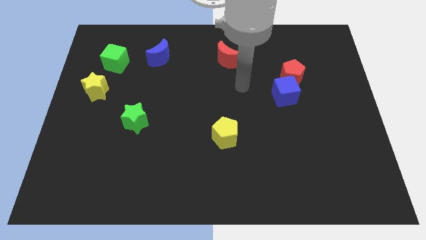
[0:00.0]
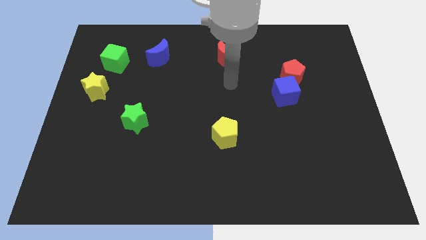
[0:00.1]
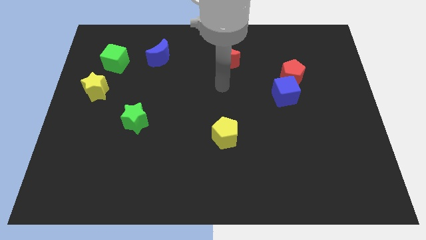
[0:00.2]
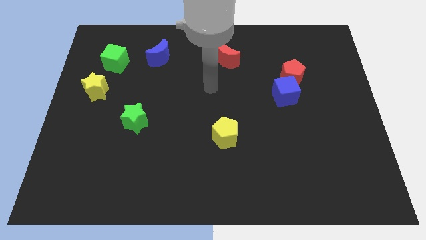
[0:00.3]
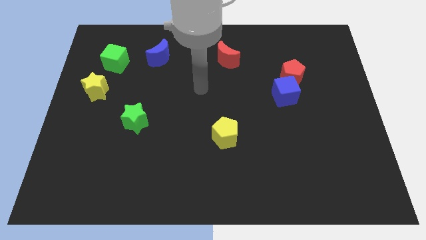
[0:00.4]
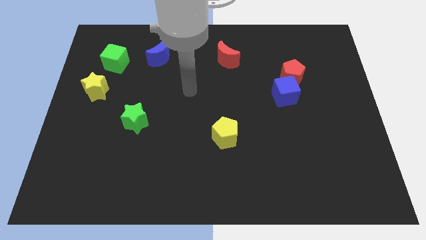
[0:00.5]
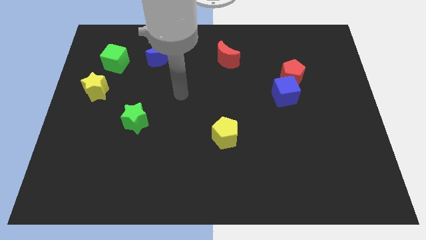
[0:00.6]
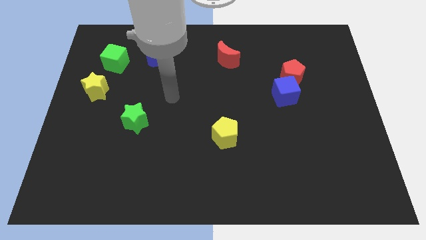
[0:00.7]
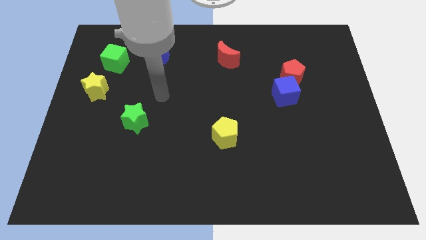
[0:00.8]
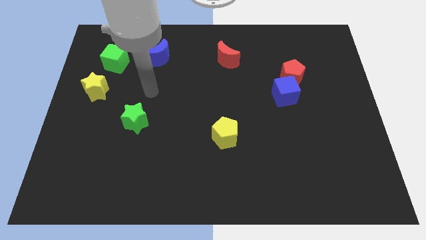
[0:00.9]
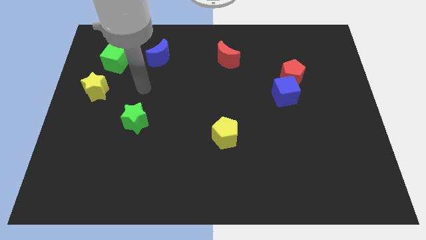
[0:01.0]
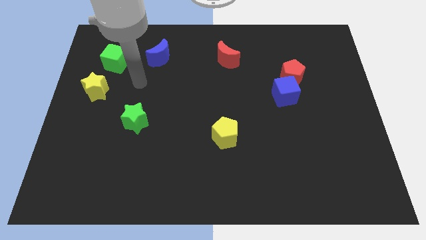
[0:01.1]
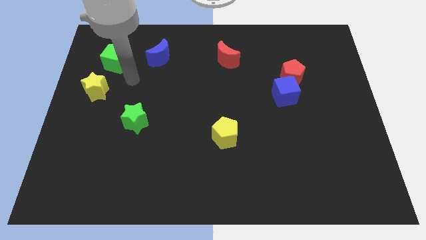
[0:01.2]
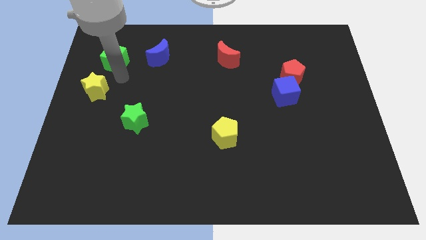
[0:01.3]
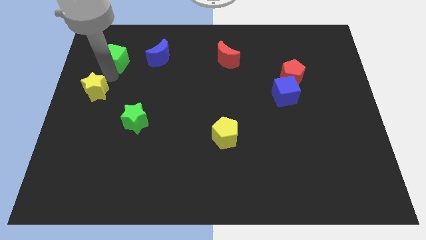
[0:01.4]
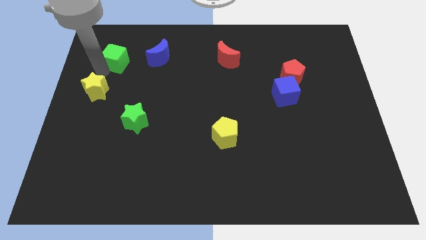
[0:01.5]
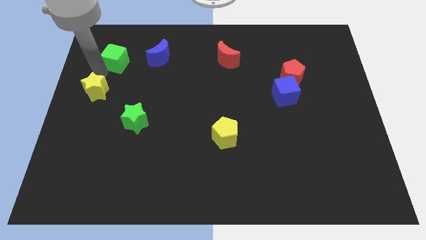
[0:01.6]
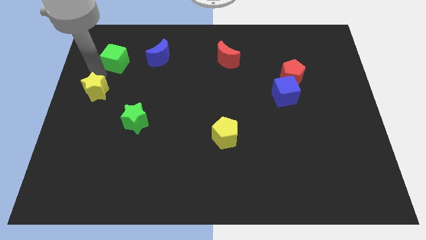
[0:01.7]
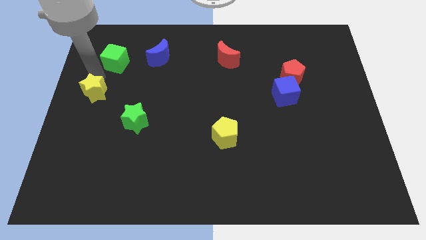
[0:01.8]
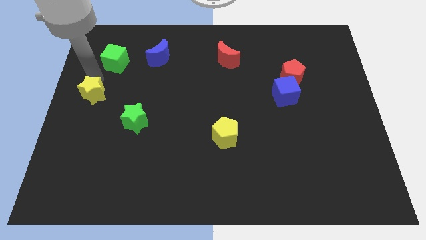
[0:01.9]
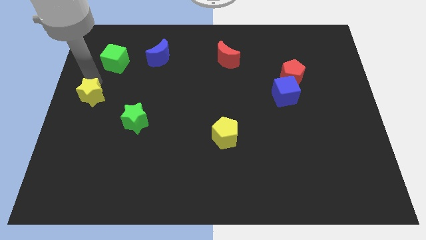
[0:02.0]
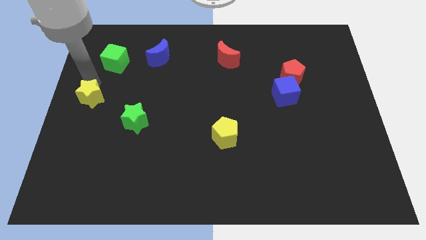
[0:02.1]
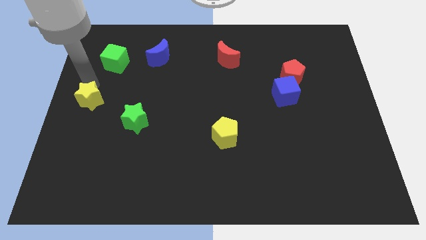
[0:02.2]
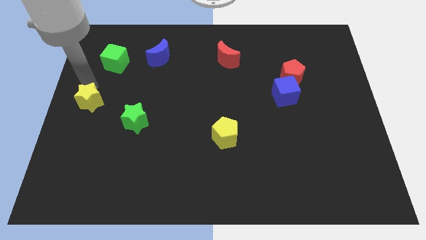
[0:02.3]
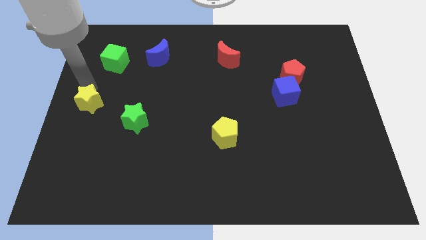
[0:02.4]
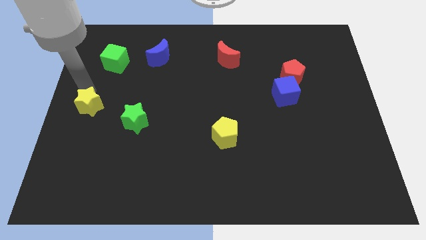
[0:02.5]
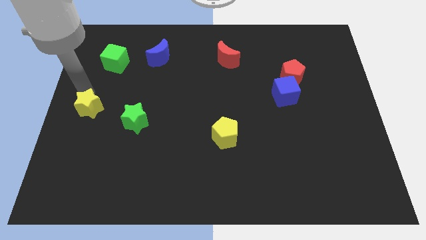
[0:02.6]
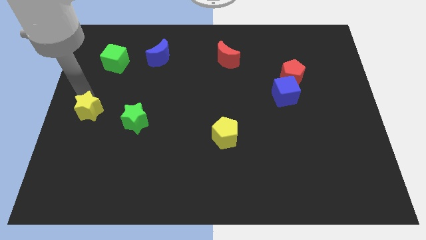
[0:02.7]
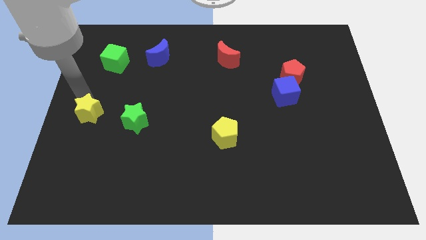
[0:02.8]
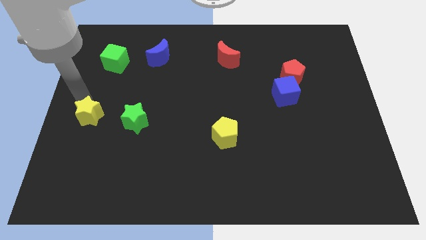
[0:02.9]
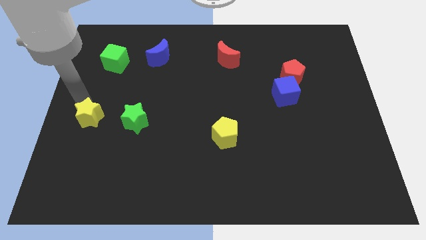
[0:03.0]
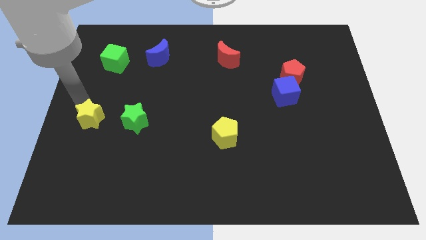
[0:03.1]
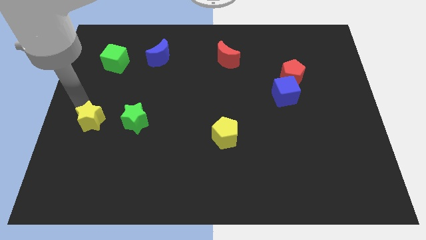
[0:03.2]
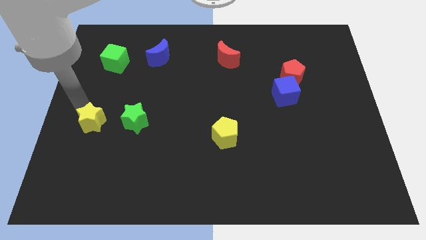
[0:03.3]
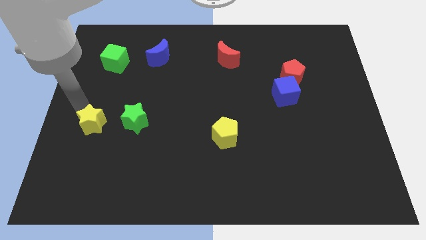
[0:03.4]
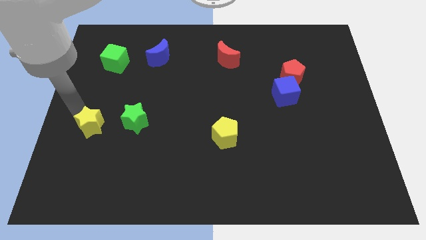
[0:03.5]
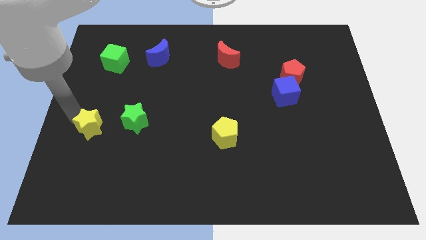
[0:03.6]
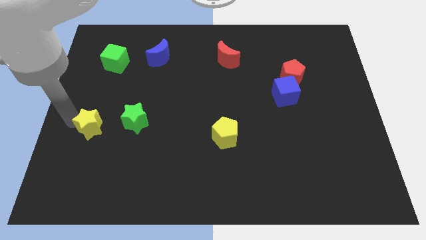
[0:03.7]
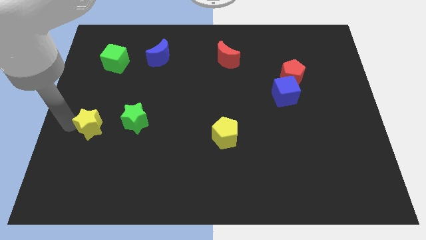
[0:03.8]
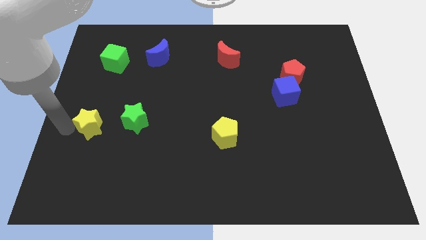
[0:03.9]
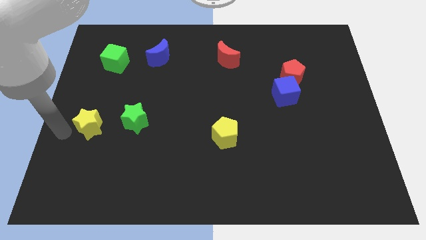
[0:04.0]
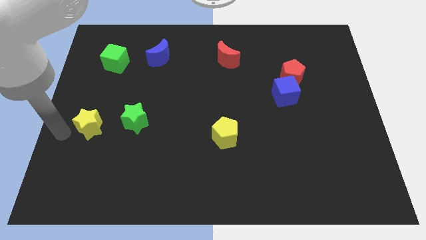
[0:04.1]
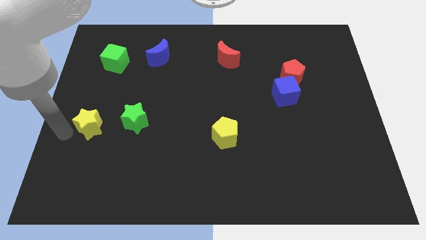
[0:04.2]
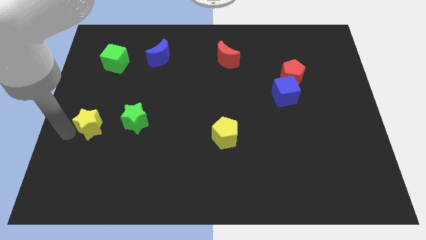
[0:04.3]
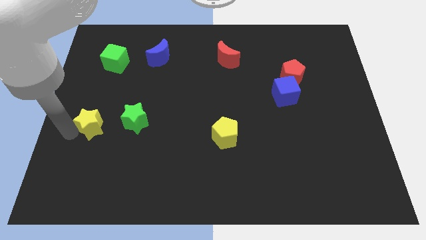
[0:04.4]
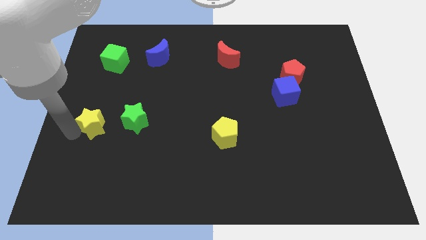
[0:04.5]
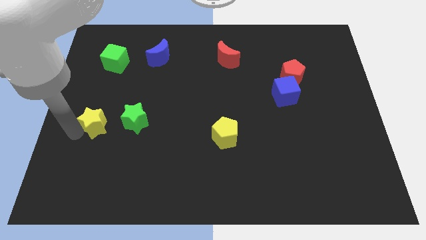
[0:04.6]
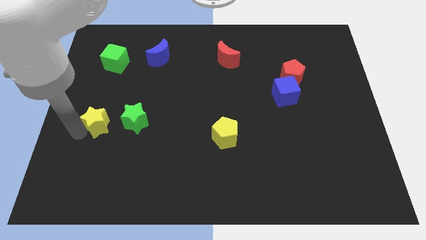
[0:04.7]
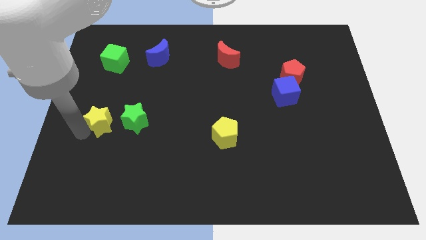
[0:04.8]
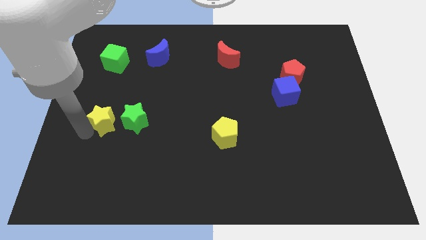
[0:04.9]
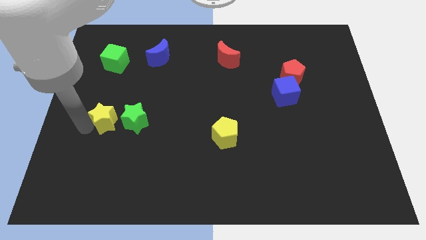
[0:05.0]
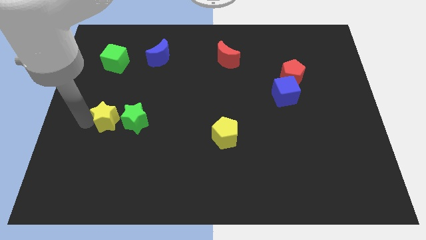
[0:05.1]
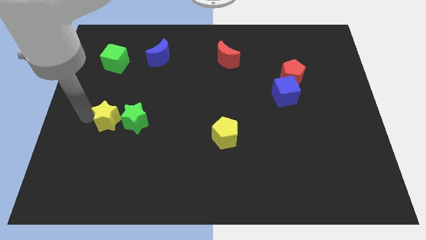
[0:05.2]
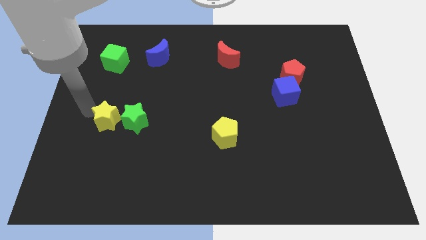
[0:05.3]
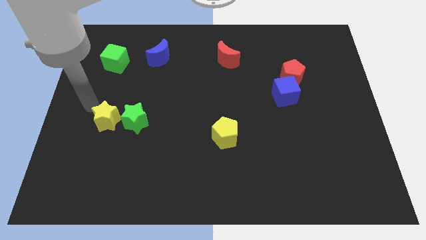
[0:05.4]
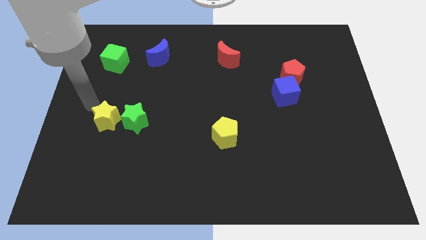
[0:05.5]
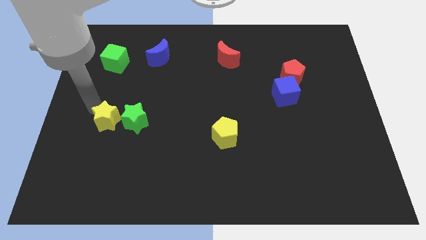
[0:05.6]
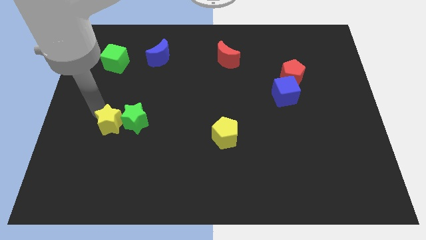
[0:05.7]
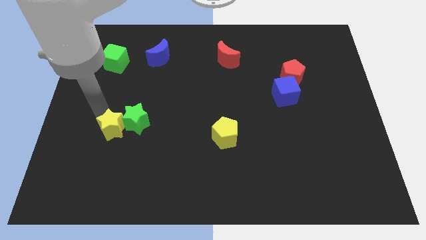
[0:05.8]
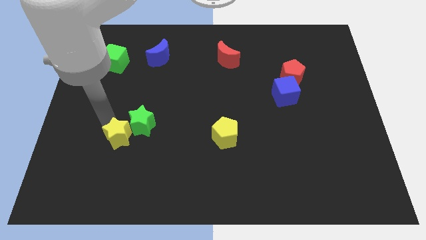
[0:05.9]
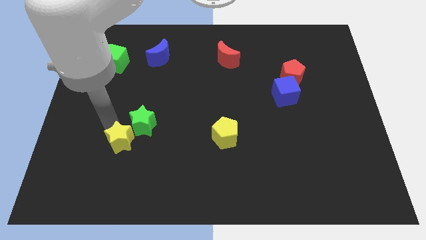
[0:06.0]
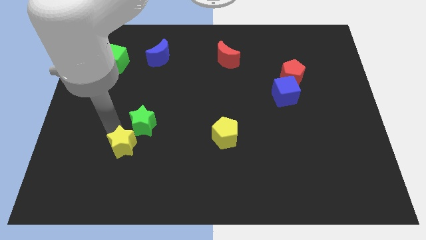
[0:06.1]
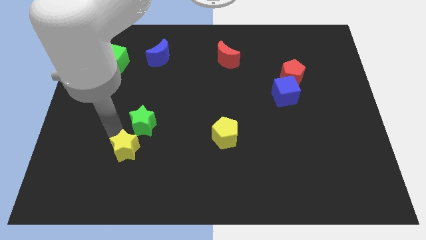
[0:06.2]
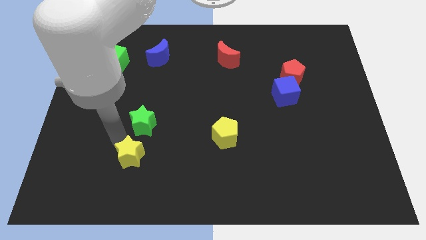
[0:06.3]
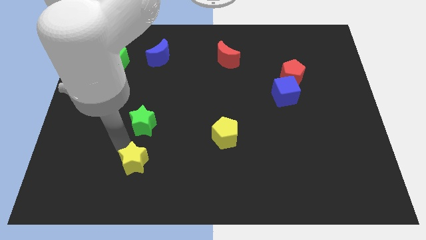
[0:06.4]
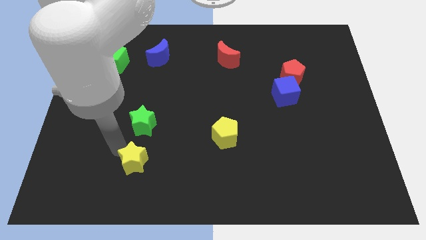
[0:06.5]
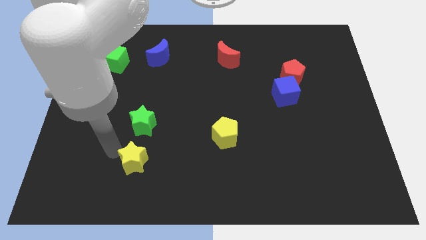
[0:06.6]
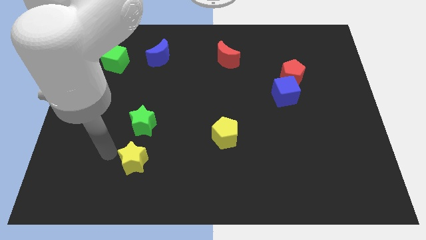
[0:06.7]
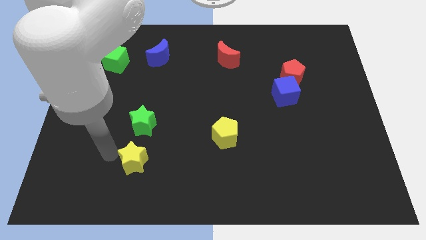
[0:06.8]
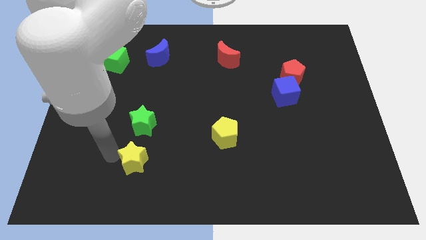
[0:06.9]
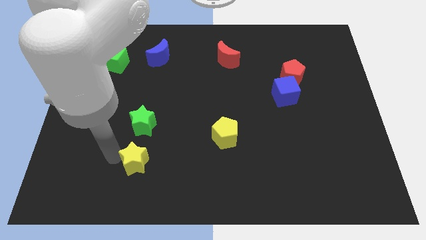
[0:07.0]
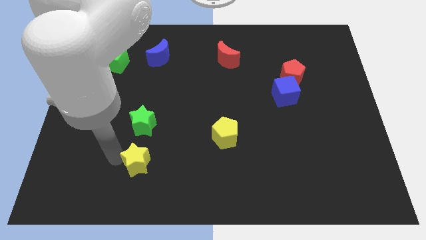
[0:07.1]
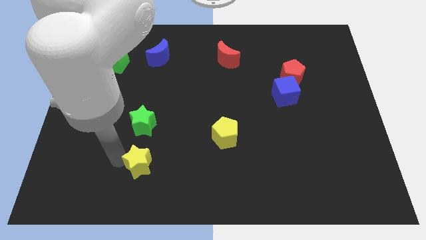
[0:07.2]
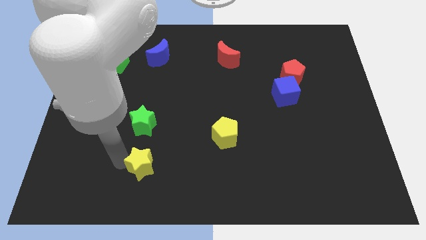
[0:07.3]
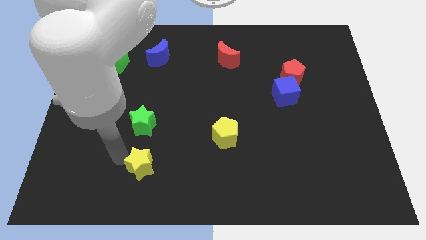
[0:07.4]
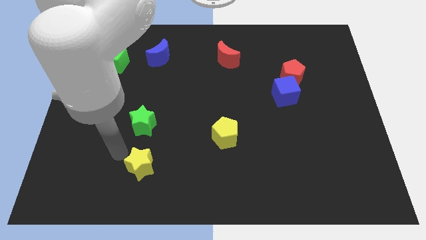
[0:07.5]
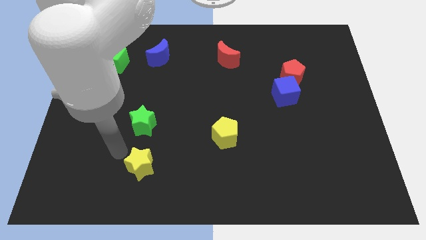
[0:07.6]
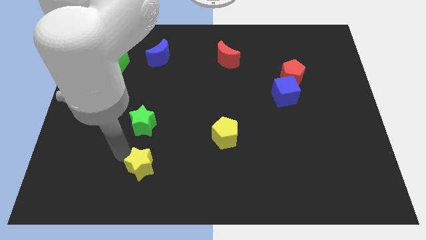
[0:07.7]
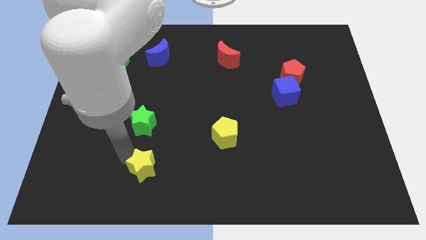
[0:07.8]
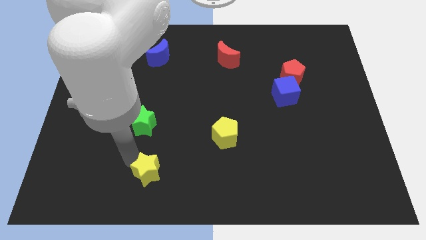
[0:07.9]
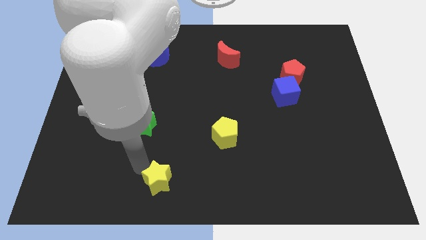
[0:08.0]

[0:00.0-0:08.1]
push the yellow star to the bottom
